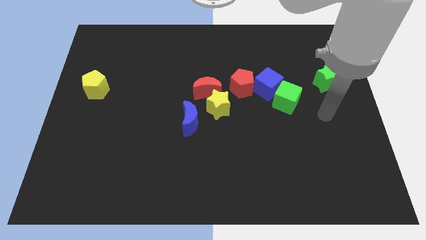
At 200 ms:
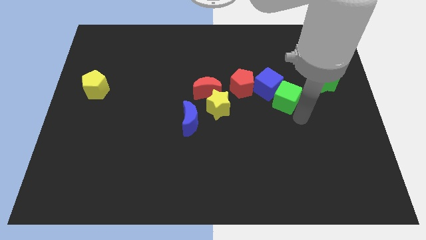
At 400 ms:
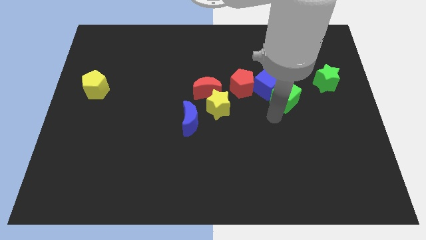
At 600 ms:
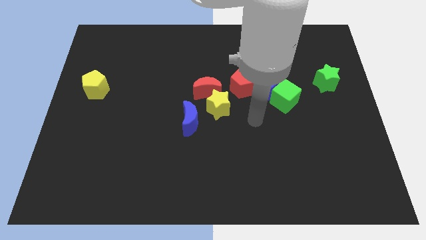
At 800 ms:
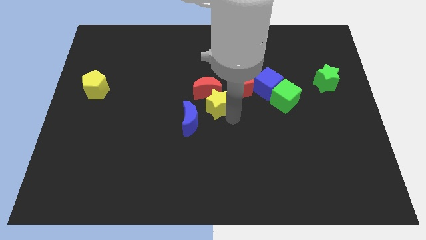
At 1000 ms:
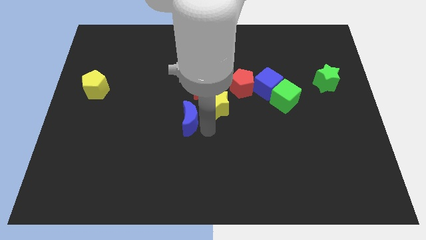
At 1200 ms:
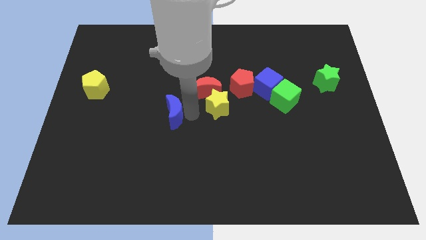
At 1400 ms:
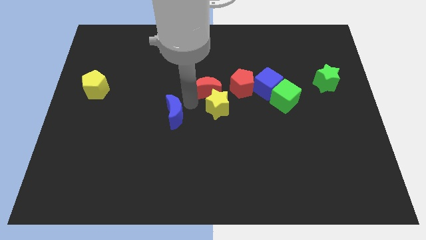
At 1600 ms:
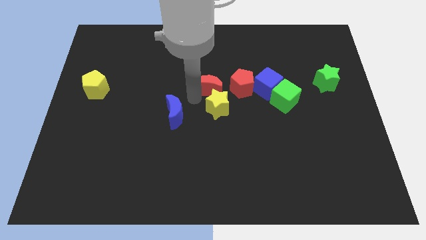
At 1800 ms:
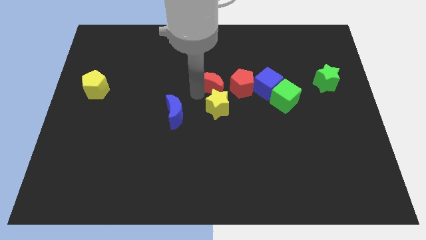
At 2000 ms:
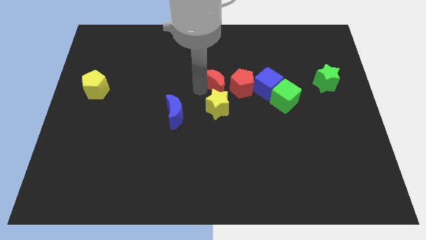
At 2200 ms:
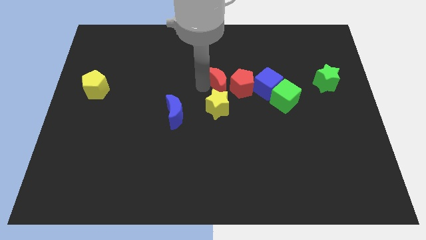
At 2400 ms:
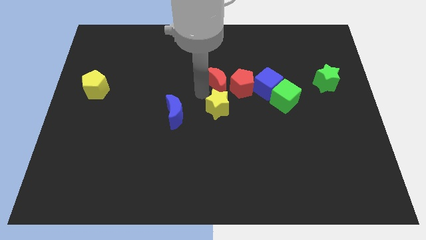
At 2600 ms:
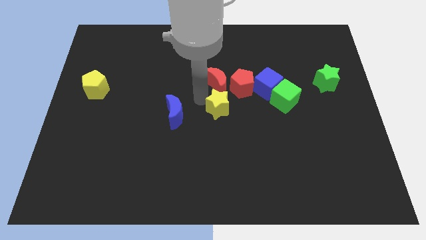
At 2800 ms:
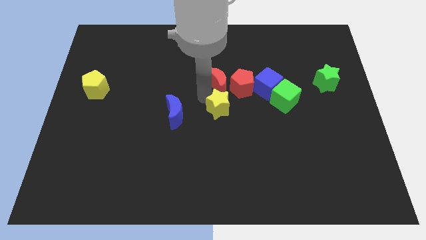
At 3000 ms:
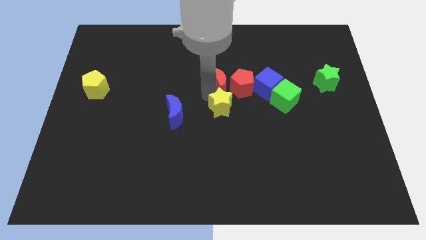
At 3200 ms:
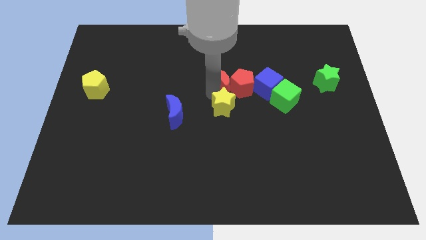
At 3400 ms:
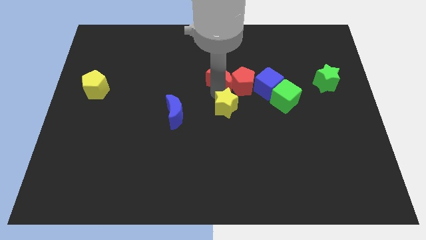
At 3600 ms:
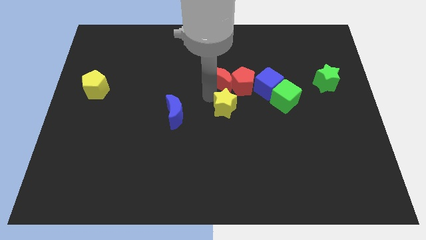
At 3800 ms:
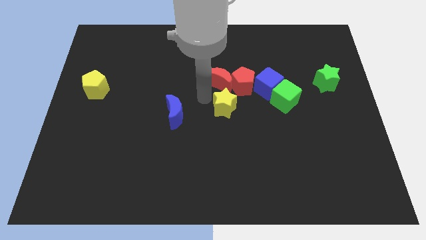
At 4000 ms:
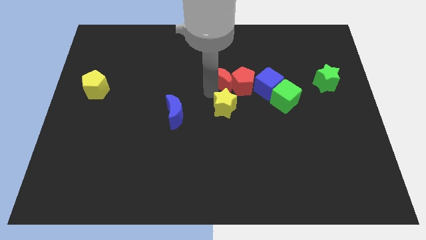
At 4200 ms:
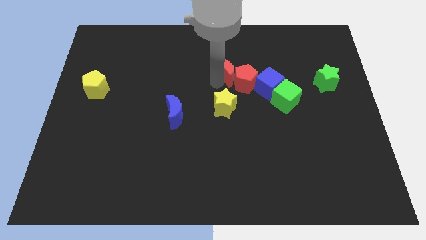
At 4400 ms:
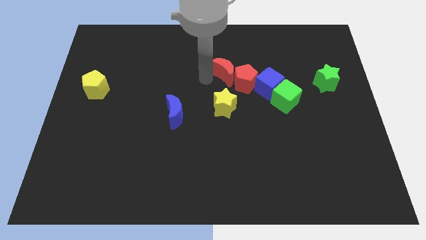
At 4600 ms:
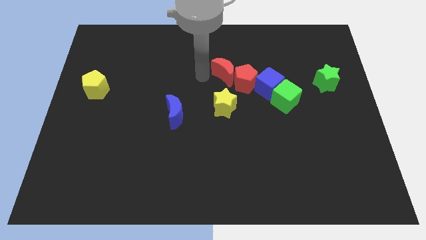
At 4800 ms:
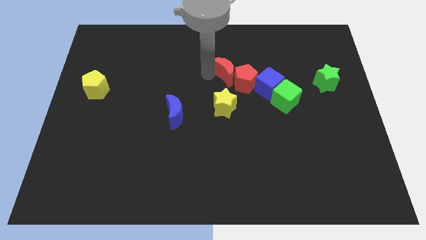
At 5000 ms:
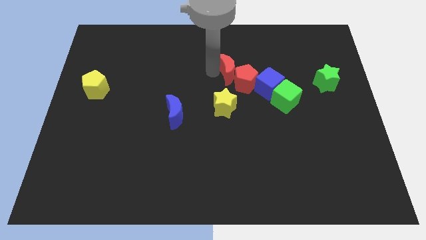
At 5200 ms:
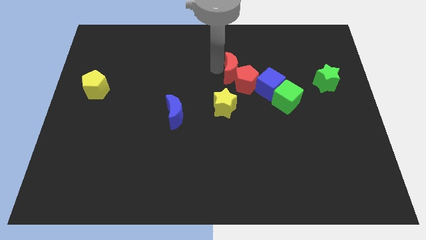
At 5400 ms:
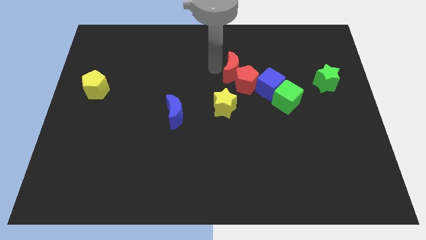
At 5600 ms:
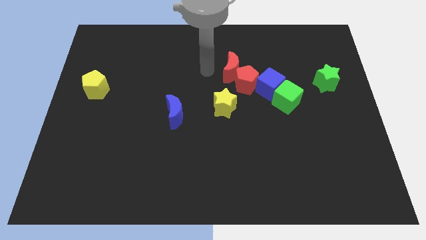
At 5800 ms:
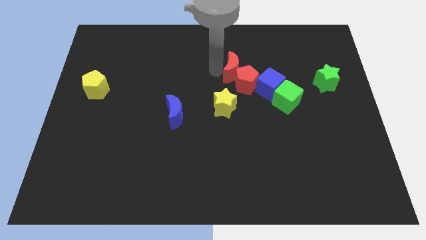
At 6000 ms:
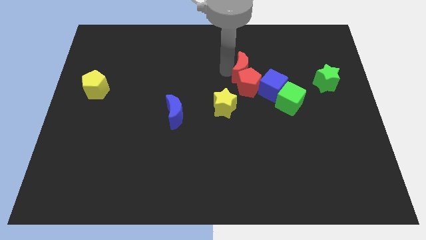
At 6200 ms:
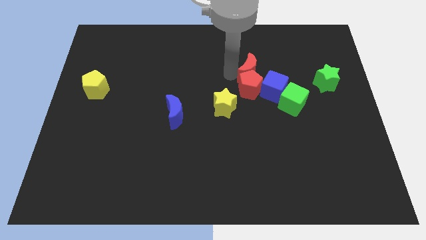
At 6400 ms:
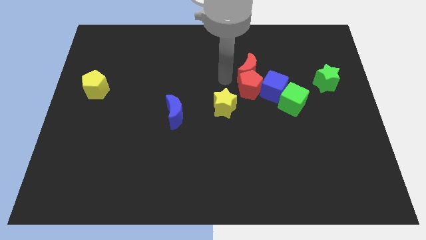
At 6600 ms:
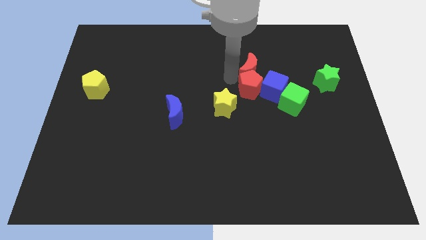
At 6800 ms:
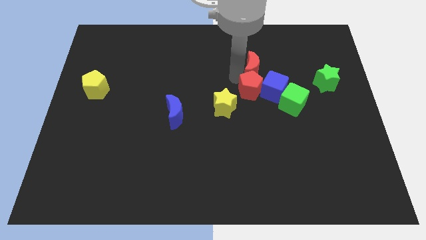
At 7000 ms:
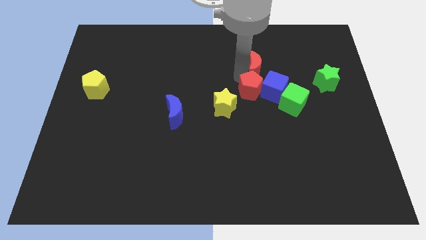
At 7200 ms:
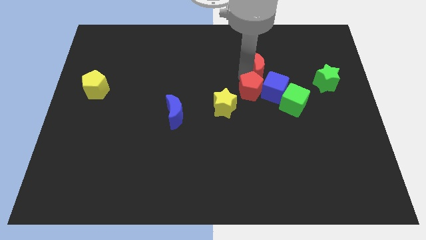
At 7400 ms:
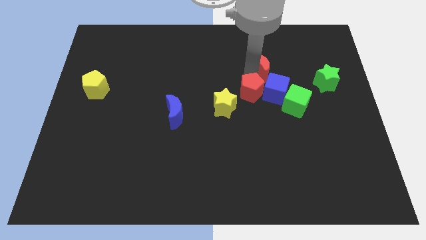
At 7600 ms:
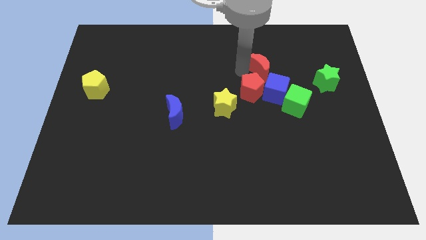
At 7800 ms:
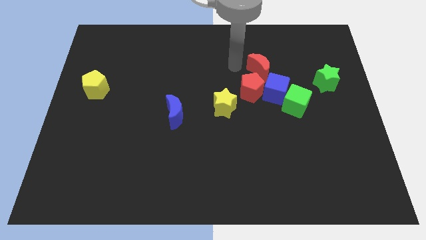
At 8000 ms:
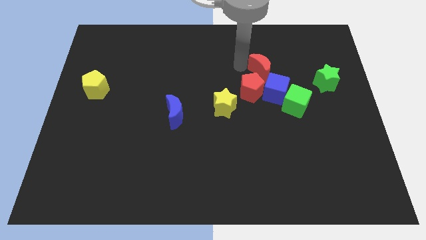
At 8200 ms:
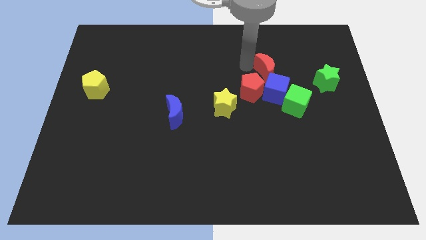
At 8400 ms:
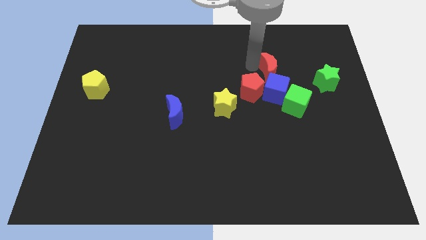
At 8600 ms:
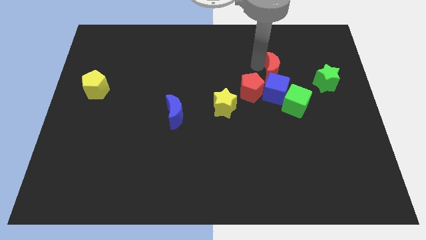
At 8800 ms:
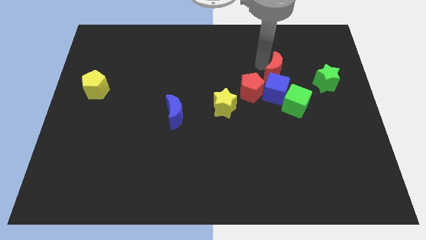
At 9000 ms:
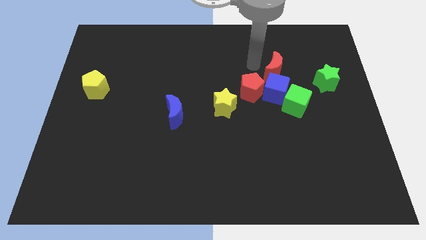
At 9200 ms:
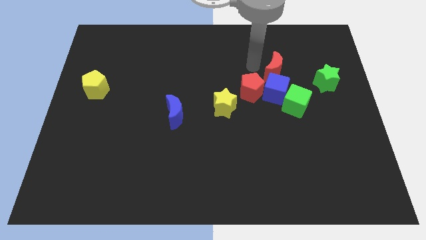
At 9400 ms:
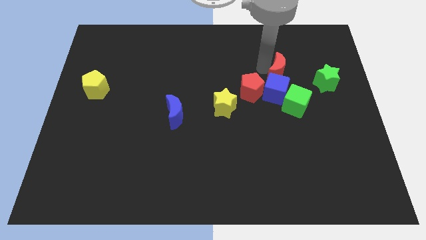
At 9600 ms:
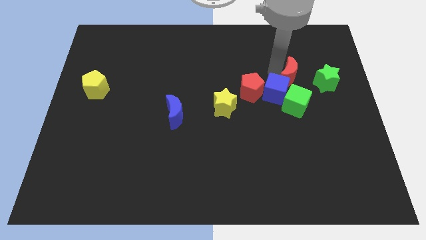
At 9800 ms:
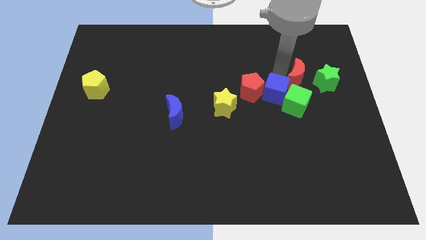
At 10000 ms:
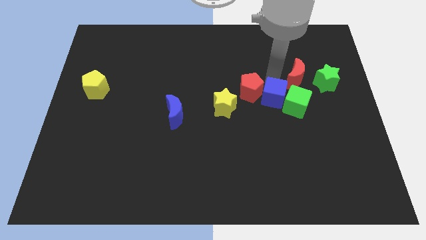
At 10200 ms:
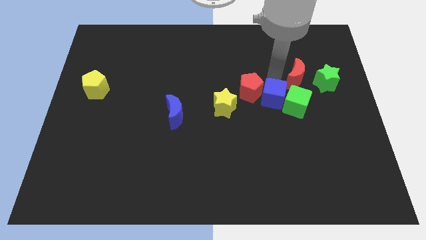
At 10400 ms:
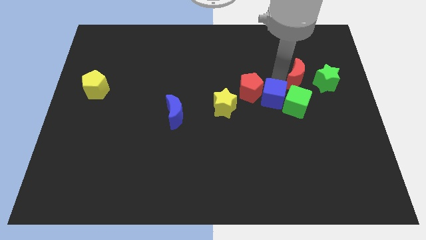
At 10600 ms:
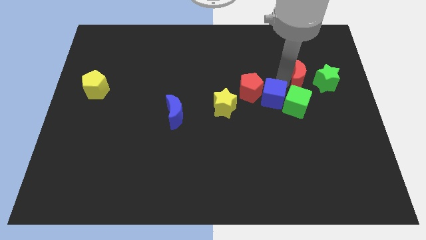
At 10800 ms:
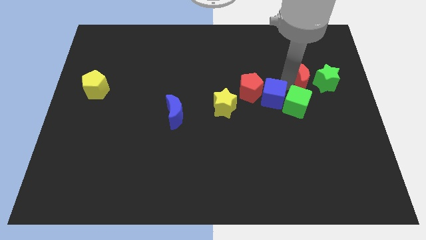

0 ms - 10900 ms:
push the red moon next to the green star
